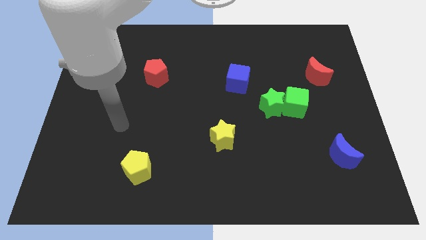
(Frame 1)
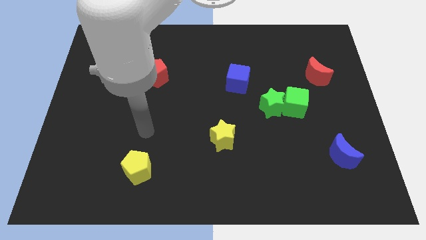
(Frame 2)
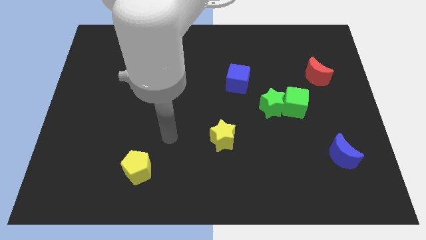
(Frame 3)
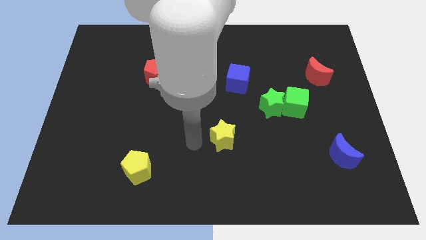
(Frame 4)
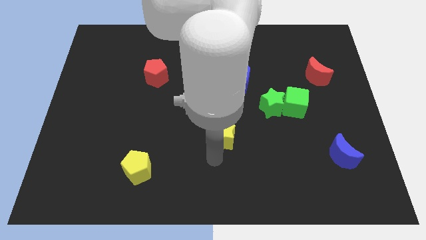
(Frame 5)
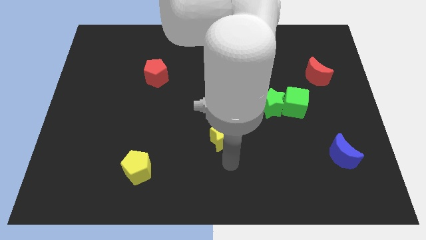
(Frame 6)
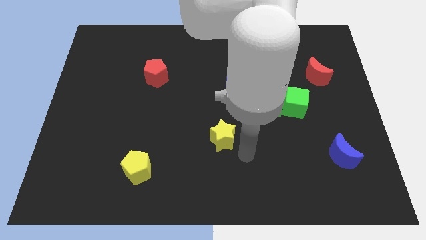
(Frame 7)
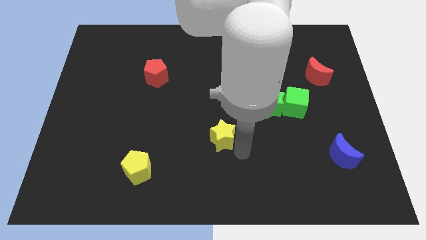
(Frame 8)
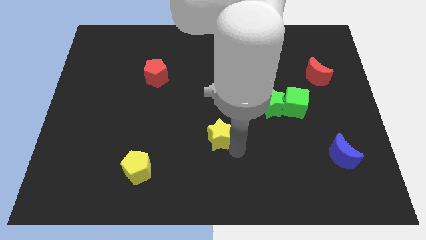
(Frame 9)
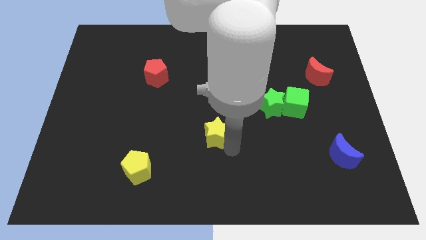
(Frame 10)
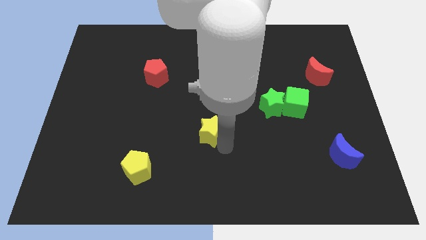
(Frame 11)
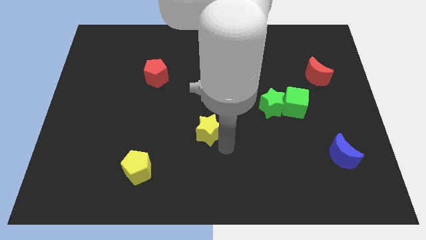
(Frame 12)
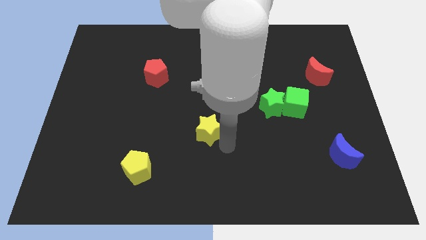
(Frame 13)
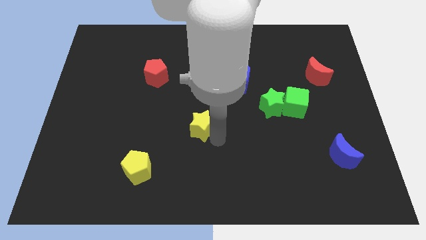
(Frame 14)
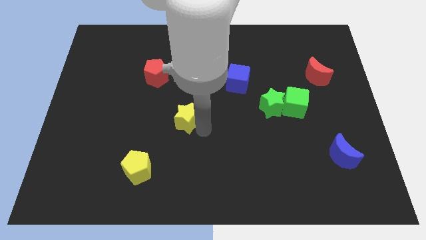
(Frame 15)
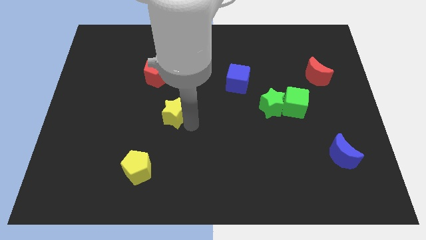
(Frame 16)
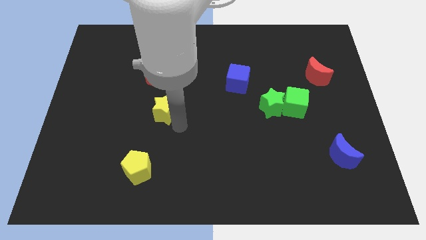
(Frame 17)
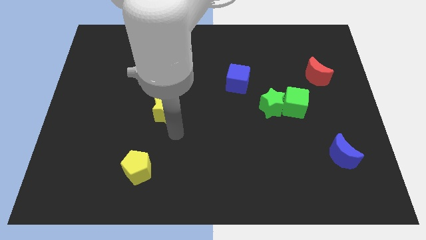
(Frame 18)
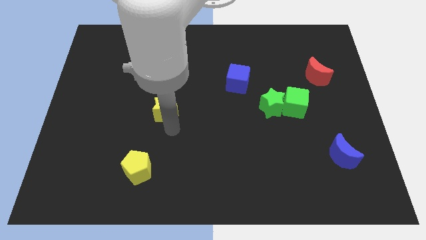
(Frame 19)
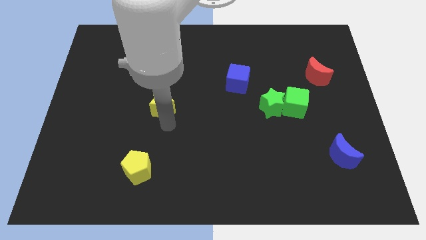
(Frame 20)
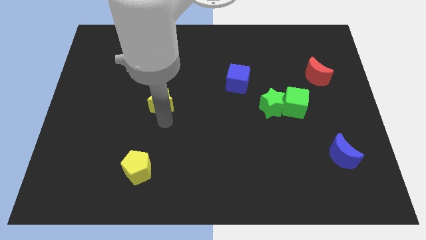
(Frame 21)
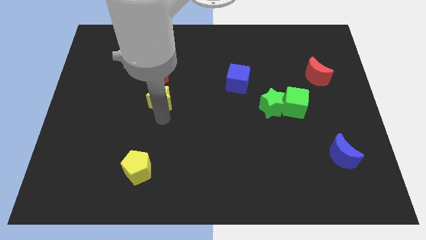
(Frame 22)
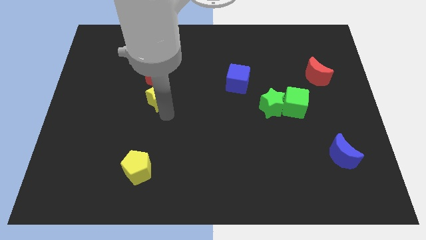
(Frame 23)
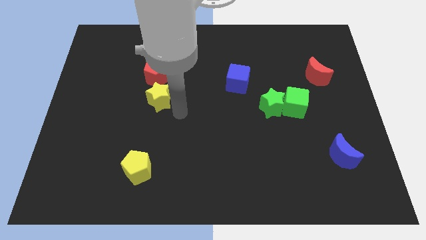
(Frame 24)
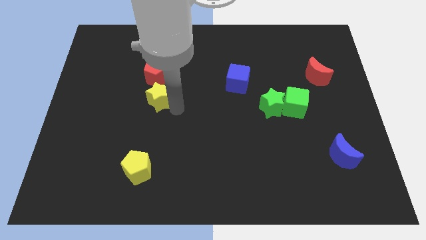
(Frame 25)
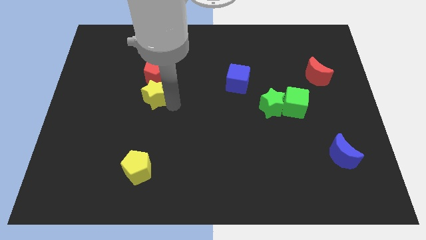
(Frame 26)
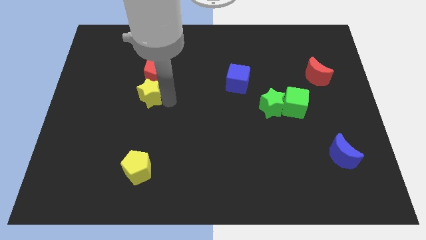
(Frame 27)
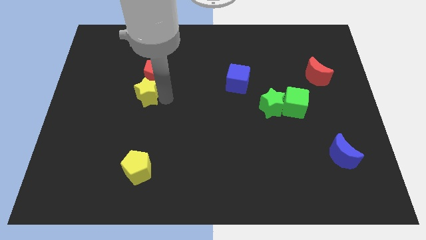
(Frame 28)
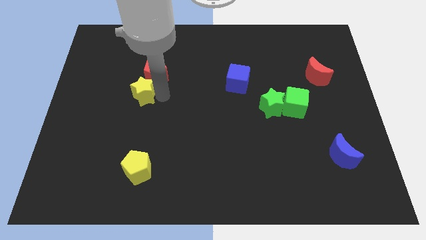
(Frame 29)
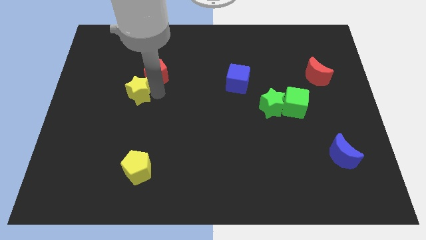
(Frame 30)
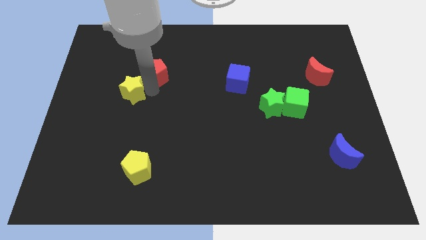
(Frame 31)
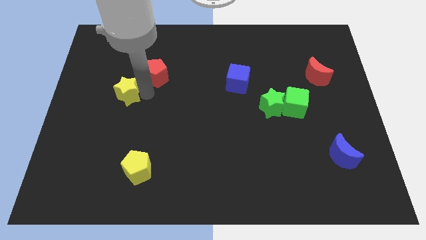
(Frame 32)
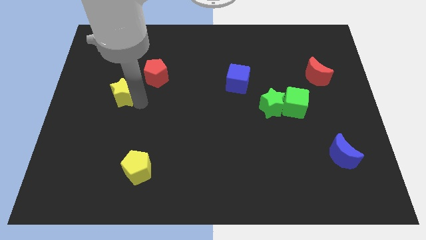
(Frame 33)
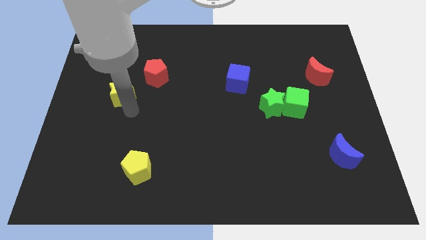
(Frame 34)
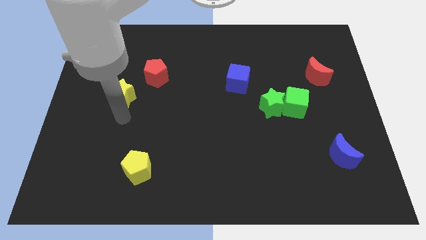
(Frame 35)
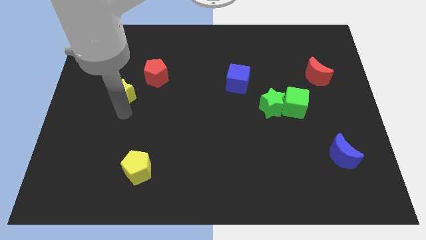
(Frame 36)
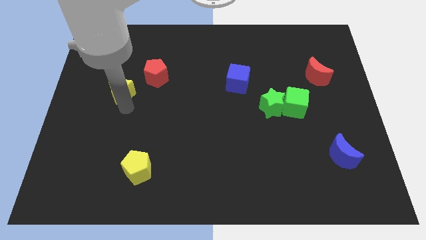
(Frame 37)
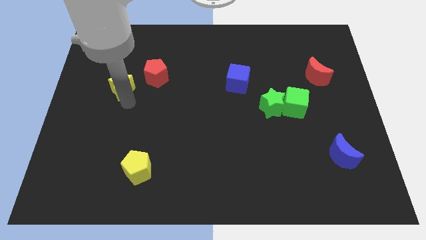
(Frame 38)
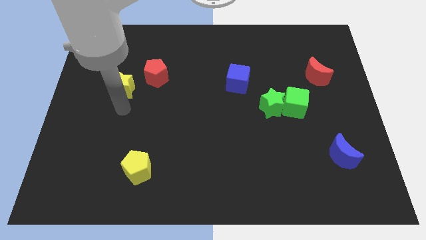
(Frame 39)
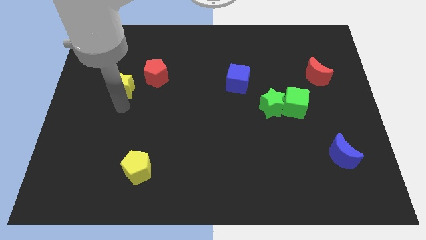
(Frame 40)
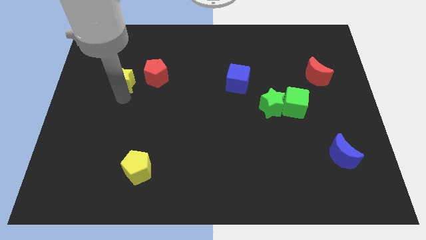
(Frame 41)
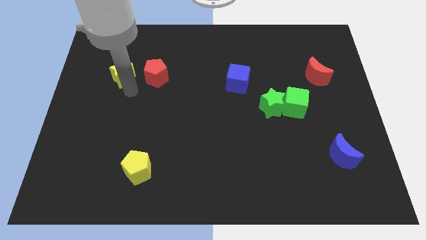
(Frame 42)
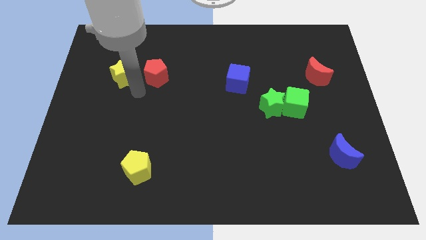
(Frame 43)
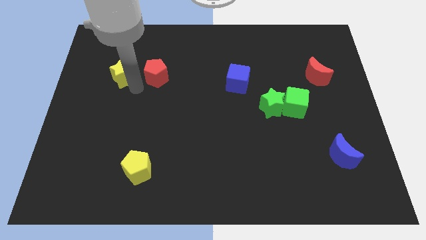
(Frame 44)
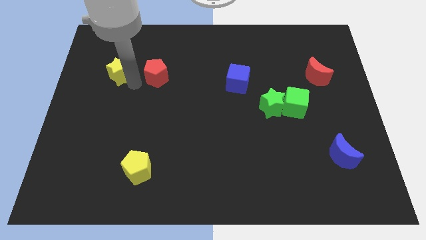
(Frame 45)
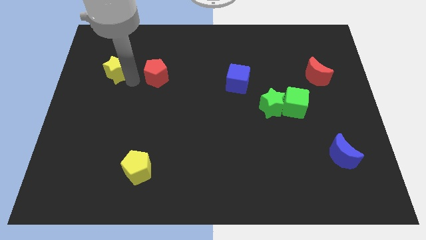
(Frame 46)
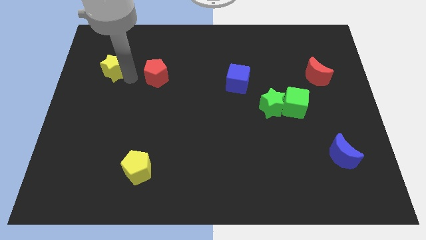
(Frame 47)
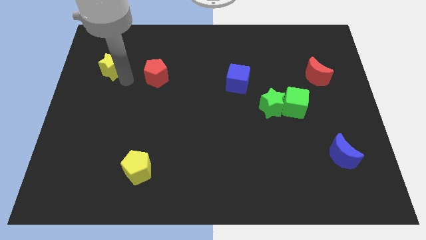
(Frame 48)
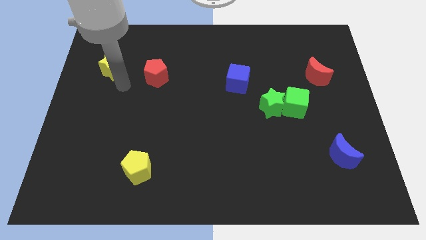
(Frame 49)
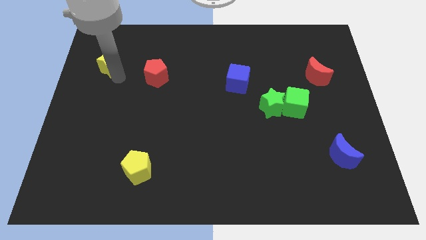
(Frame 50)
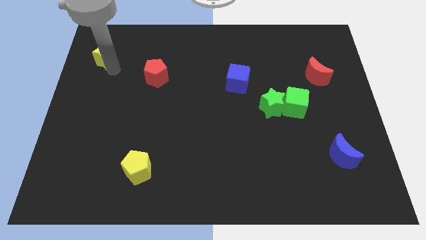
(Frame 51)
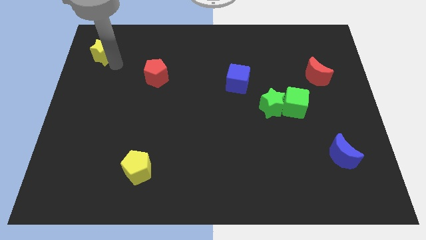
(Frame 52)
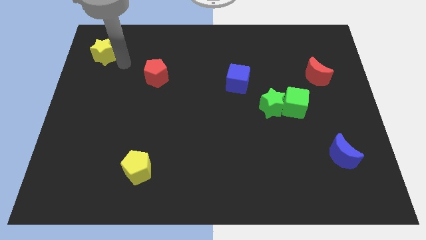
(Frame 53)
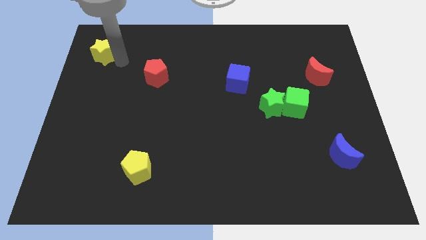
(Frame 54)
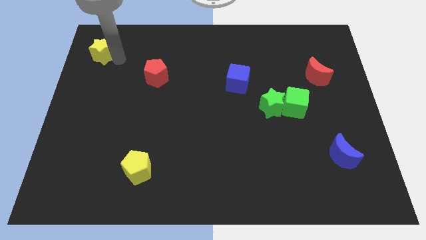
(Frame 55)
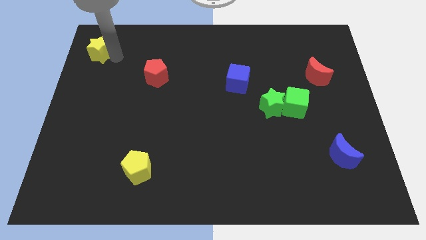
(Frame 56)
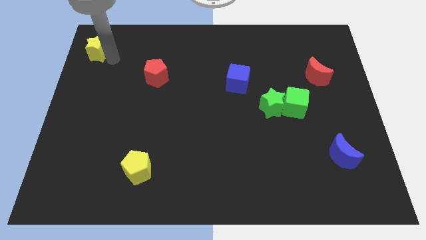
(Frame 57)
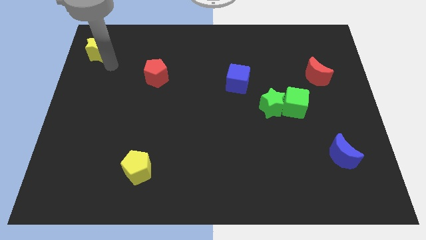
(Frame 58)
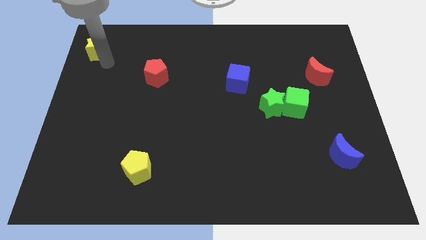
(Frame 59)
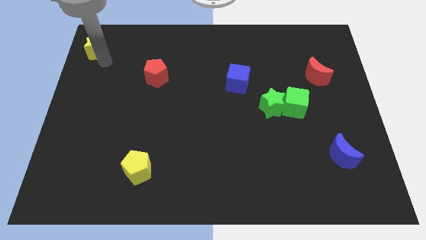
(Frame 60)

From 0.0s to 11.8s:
put the yellow star to the top left of the board
